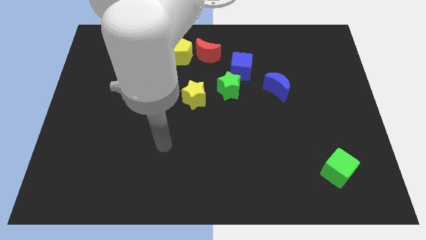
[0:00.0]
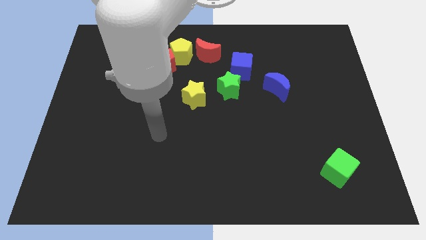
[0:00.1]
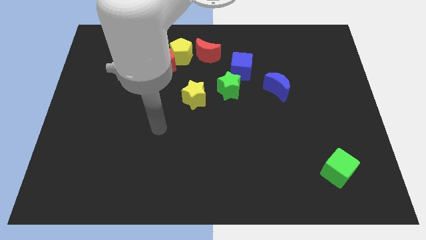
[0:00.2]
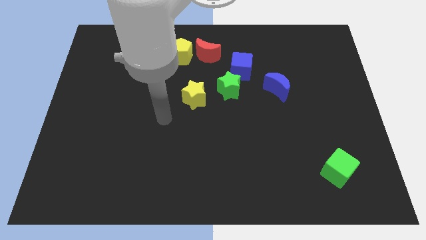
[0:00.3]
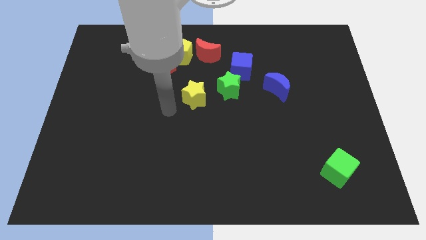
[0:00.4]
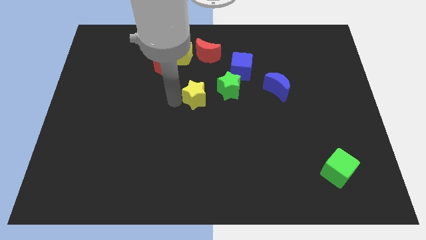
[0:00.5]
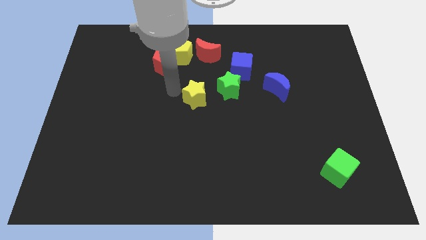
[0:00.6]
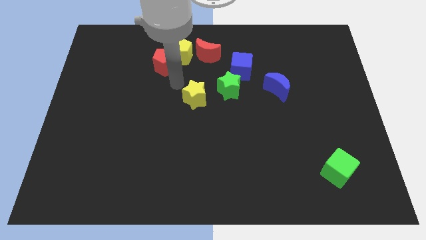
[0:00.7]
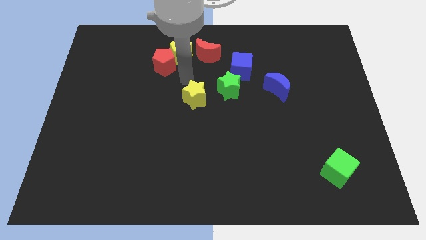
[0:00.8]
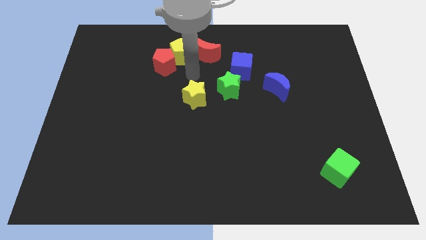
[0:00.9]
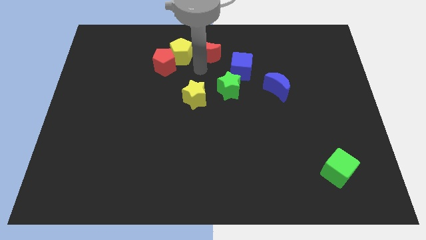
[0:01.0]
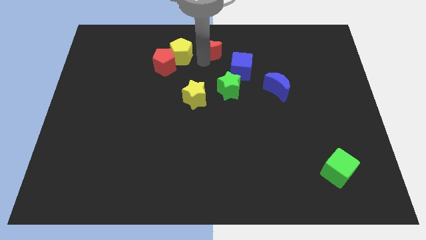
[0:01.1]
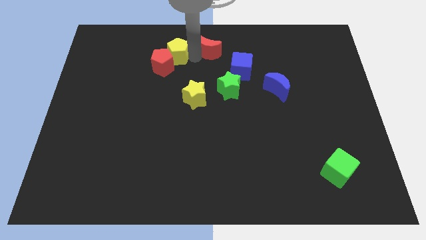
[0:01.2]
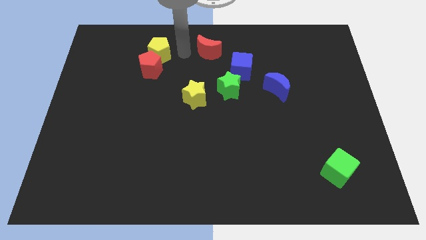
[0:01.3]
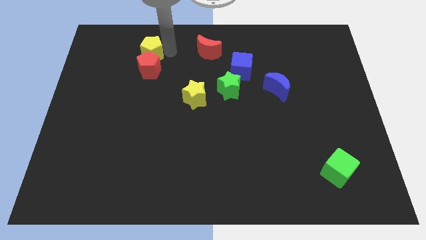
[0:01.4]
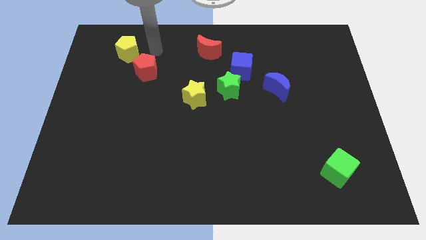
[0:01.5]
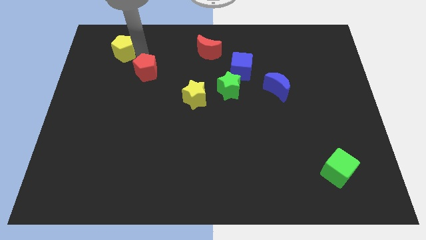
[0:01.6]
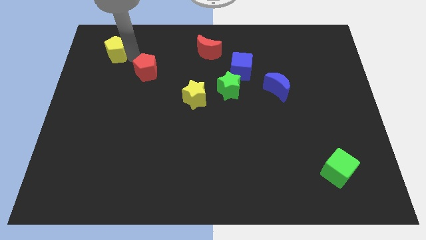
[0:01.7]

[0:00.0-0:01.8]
move the red pentagon away from the yellow pentagon

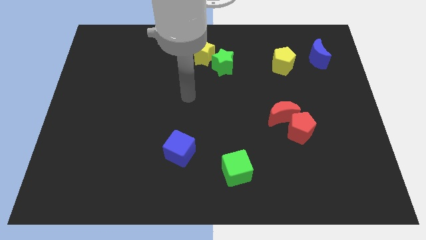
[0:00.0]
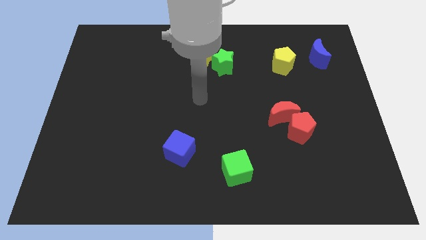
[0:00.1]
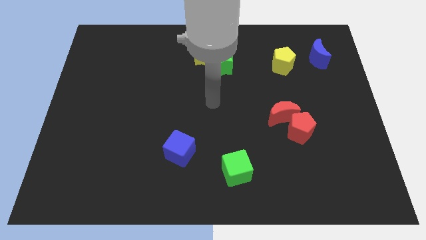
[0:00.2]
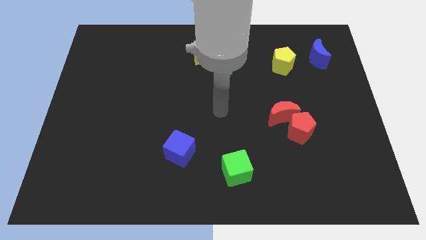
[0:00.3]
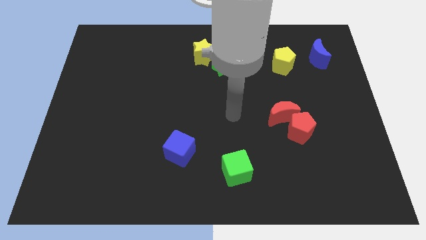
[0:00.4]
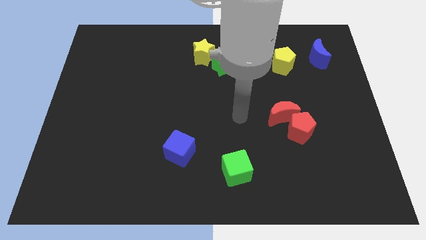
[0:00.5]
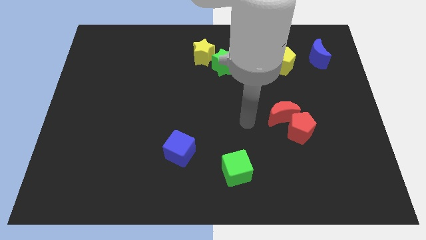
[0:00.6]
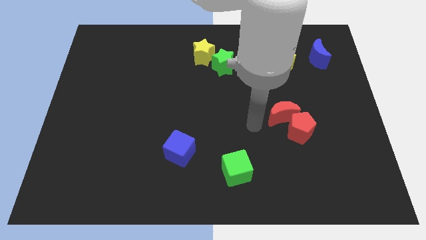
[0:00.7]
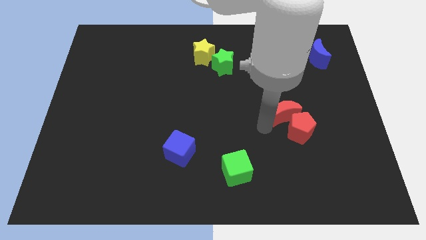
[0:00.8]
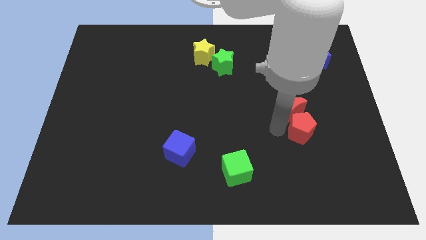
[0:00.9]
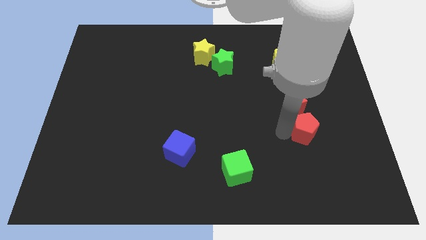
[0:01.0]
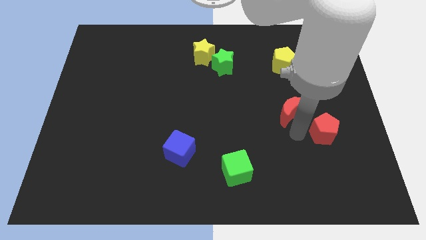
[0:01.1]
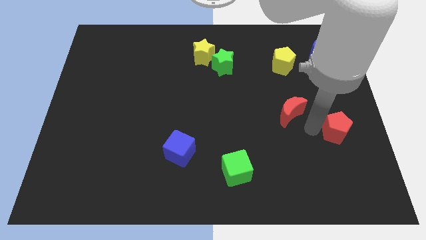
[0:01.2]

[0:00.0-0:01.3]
pull the red moon apart from the red pentagon

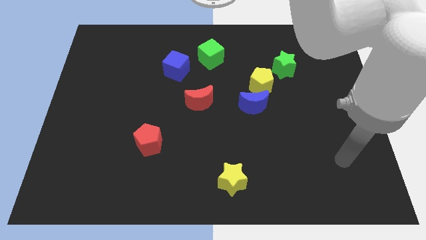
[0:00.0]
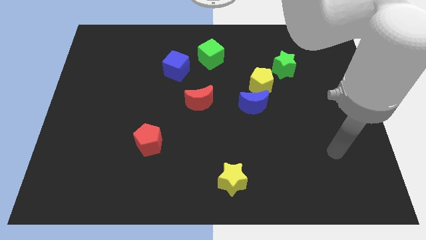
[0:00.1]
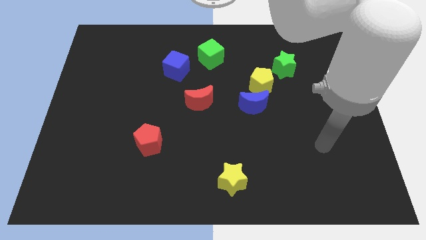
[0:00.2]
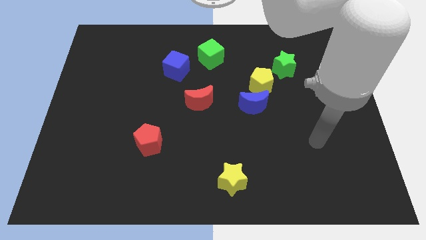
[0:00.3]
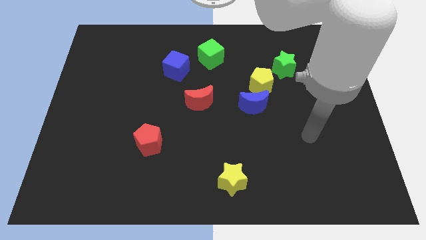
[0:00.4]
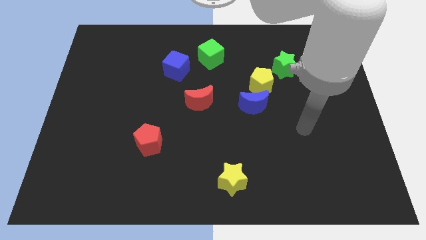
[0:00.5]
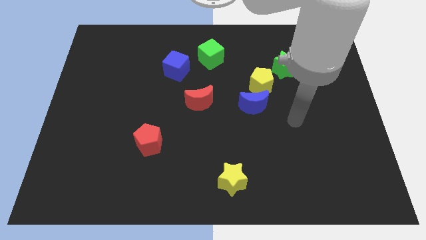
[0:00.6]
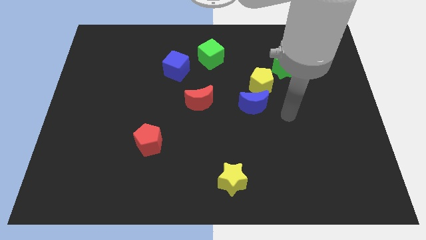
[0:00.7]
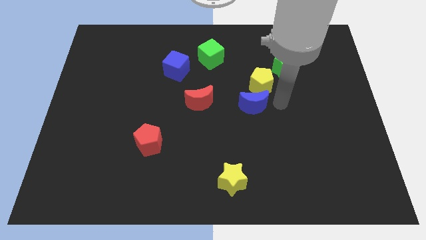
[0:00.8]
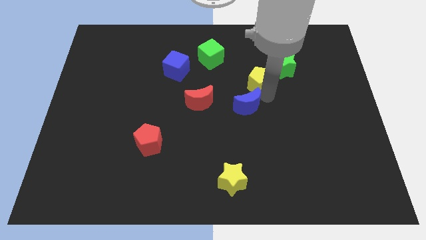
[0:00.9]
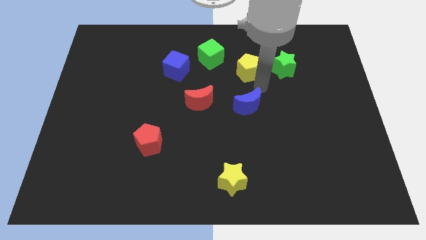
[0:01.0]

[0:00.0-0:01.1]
move the blue moon away from the yellow pentagon

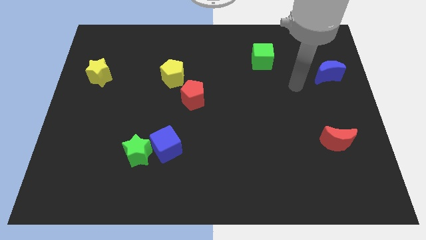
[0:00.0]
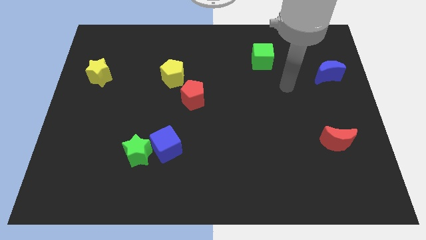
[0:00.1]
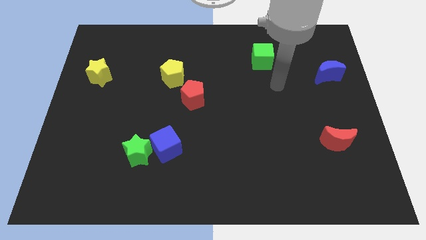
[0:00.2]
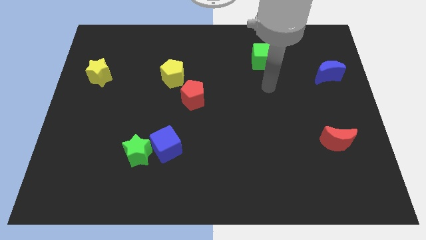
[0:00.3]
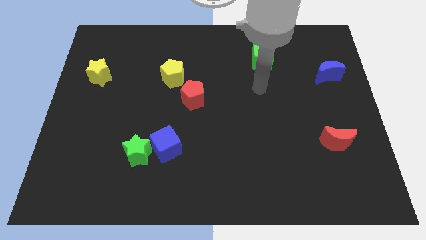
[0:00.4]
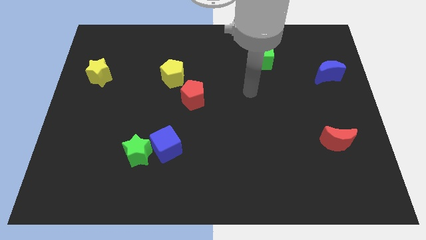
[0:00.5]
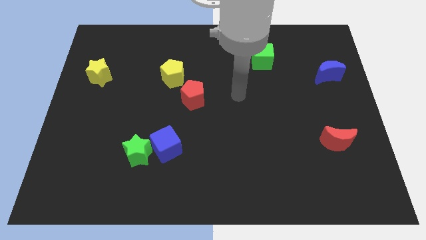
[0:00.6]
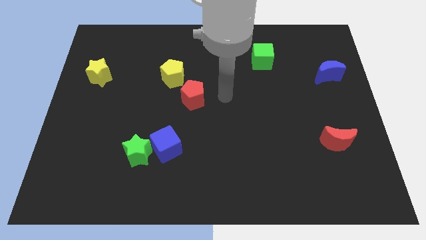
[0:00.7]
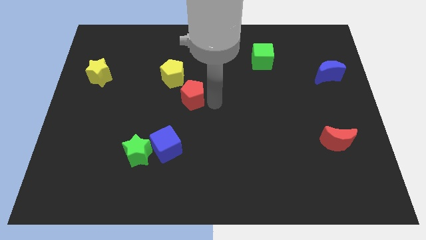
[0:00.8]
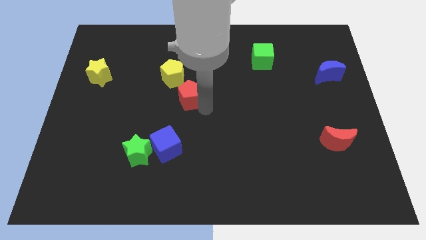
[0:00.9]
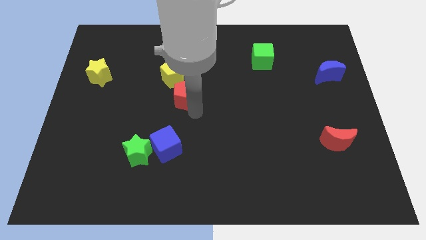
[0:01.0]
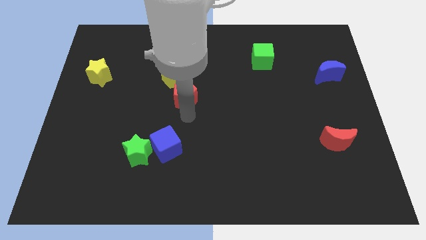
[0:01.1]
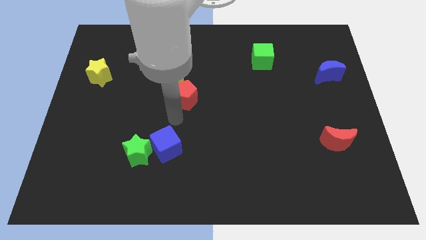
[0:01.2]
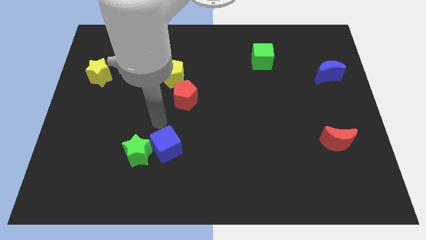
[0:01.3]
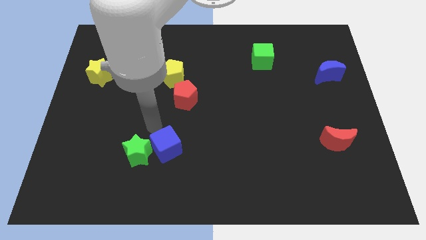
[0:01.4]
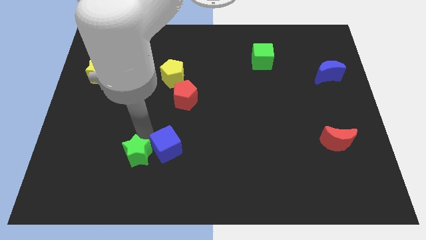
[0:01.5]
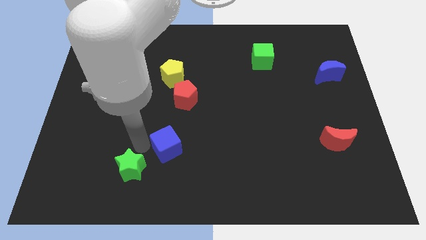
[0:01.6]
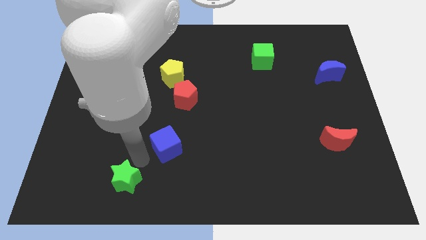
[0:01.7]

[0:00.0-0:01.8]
move the blue cube away from the green star

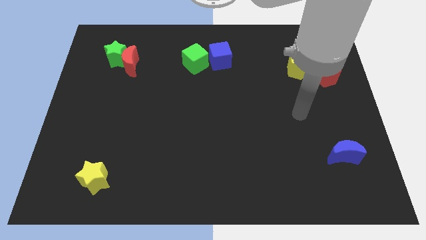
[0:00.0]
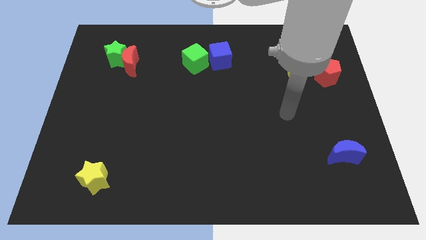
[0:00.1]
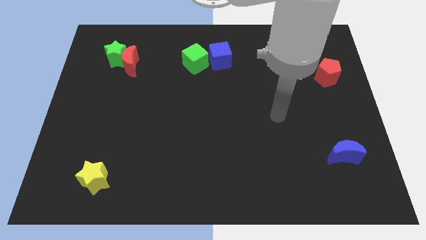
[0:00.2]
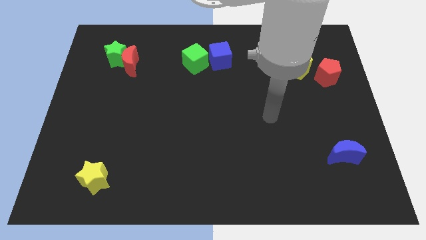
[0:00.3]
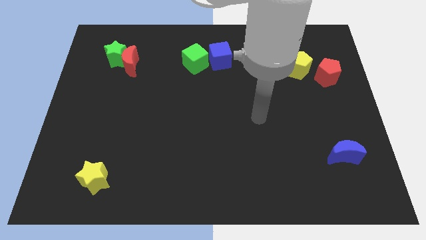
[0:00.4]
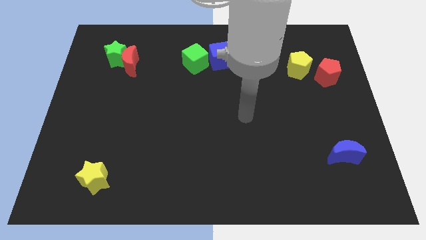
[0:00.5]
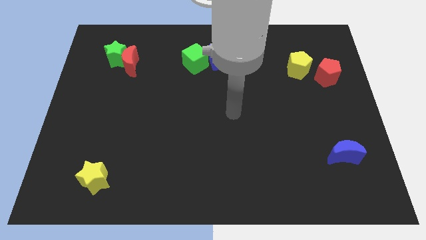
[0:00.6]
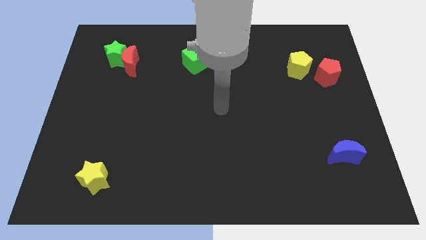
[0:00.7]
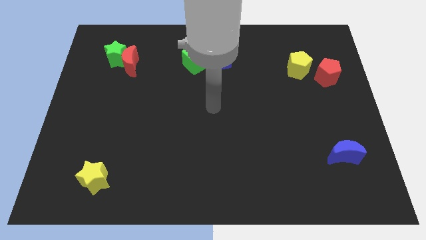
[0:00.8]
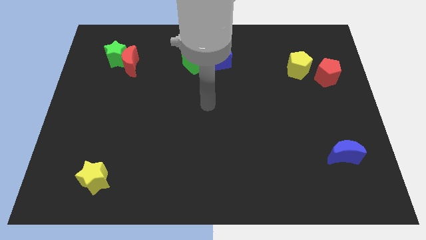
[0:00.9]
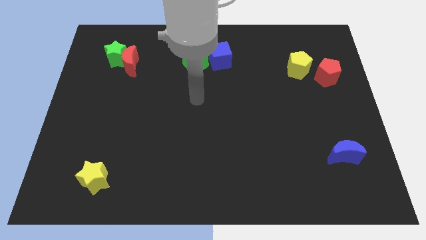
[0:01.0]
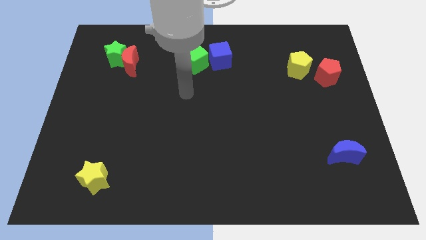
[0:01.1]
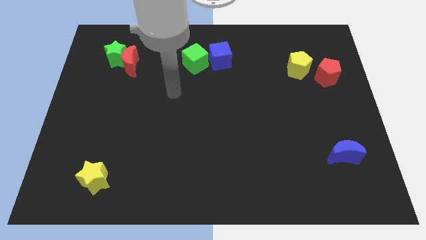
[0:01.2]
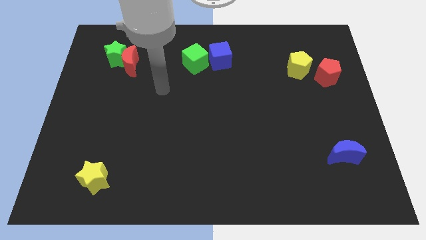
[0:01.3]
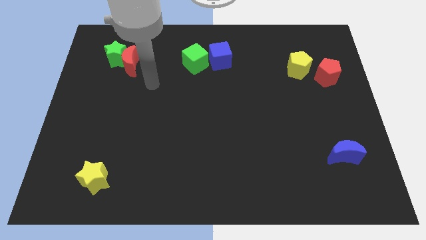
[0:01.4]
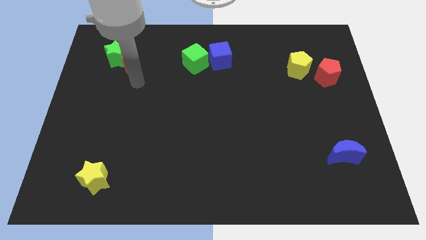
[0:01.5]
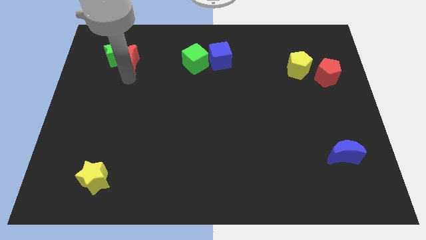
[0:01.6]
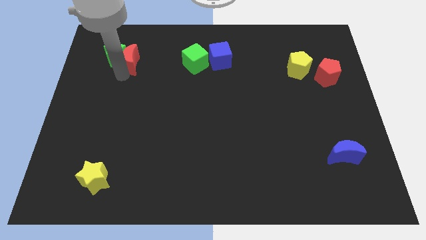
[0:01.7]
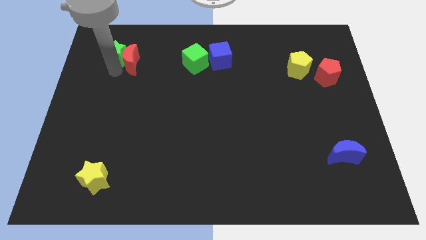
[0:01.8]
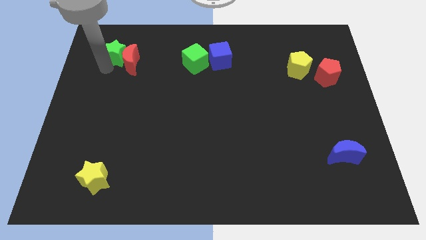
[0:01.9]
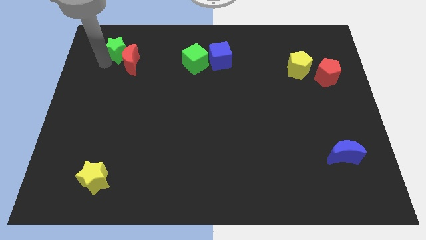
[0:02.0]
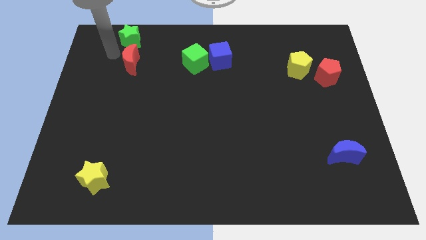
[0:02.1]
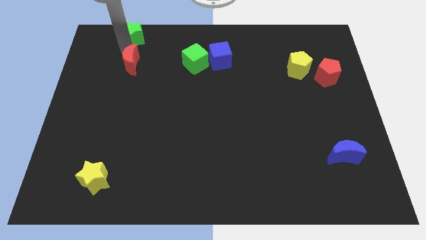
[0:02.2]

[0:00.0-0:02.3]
separate the red moon from the green star

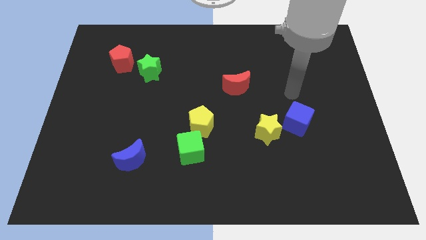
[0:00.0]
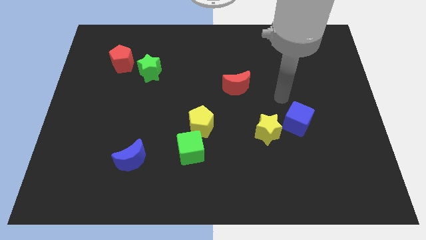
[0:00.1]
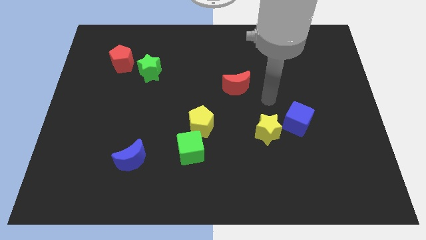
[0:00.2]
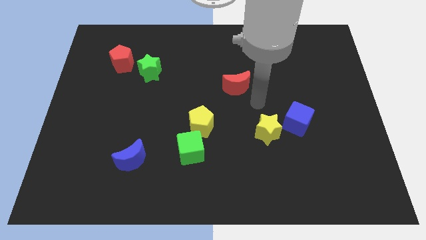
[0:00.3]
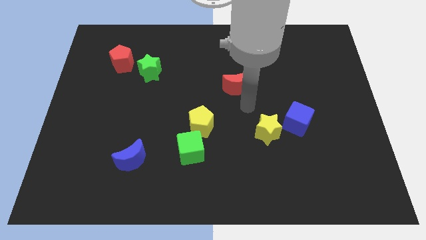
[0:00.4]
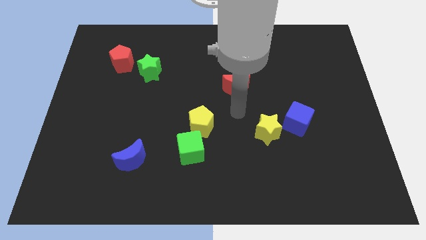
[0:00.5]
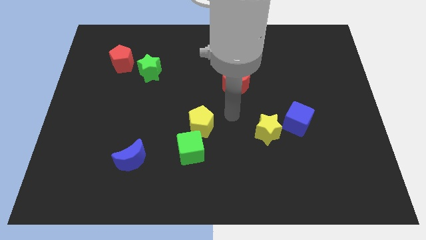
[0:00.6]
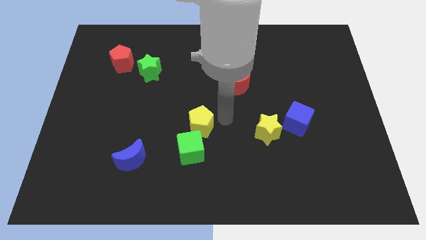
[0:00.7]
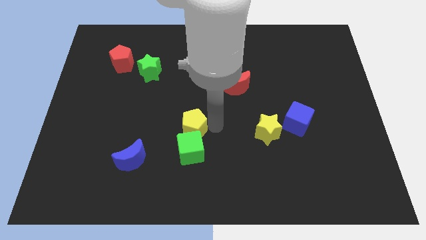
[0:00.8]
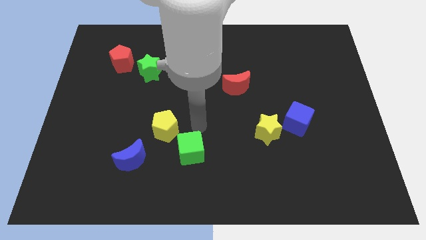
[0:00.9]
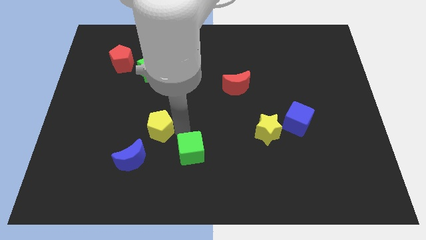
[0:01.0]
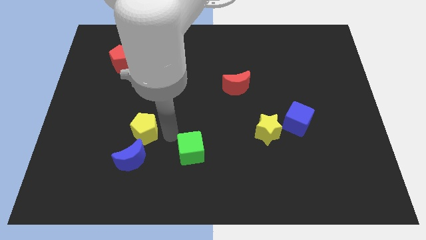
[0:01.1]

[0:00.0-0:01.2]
separate the green cube from the yellow pentagon
